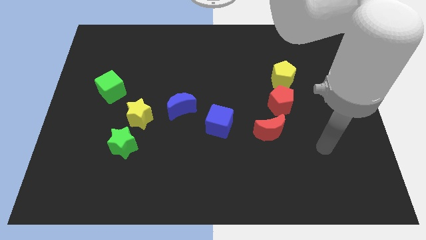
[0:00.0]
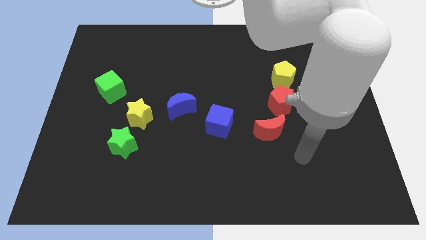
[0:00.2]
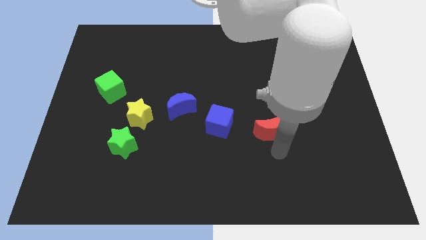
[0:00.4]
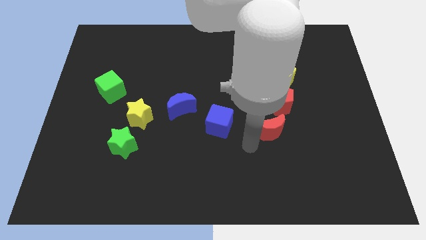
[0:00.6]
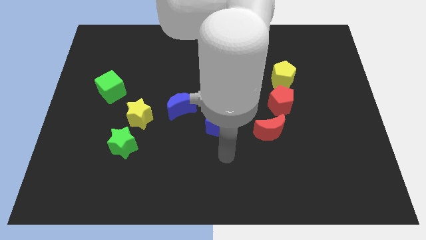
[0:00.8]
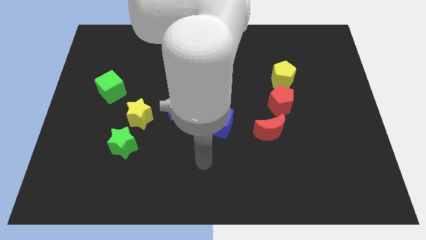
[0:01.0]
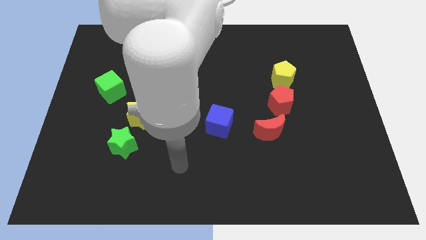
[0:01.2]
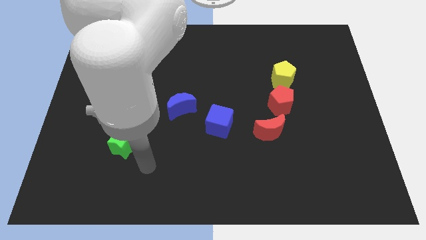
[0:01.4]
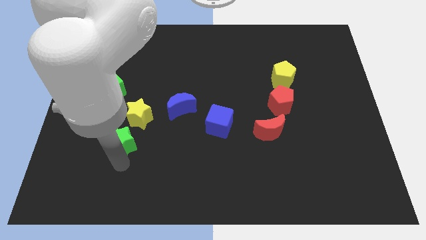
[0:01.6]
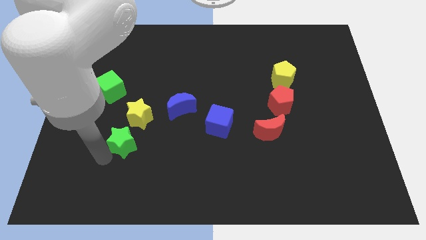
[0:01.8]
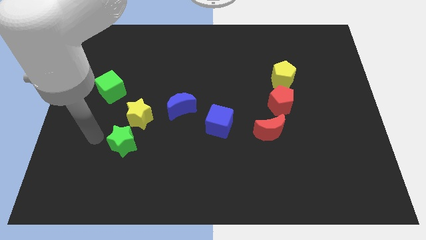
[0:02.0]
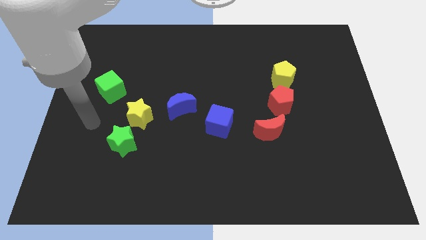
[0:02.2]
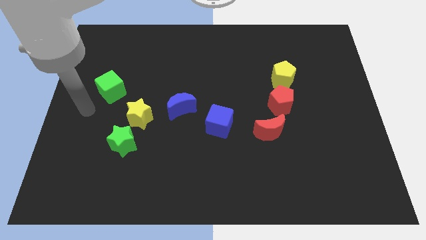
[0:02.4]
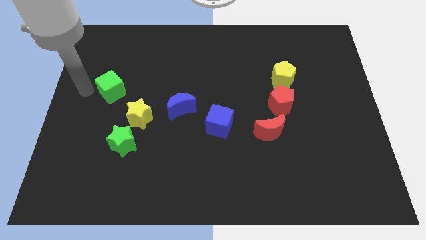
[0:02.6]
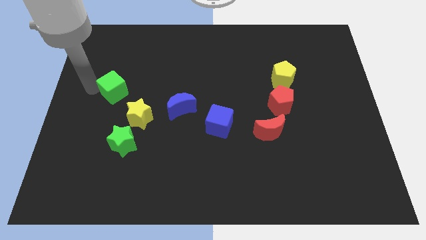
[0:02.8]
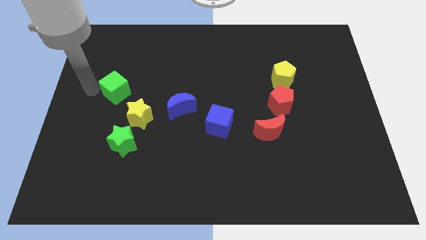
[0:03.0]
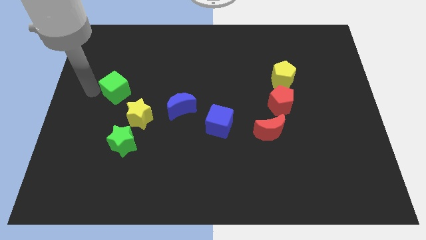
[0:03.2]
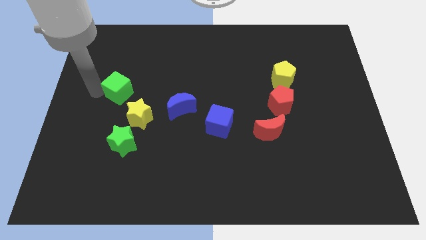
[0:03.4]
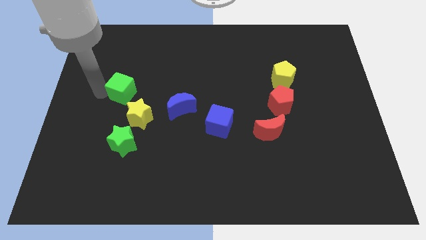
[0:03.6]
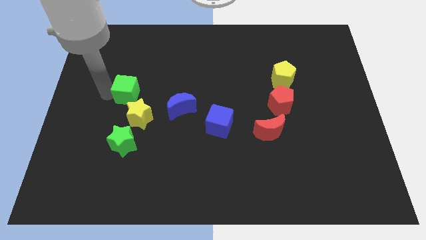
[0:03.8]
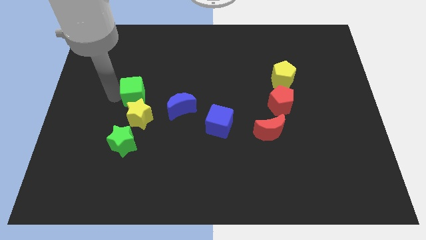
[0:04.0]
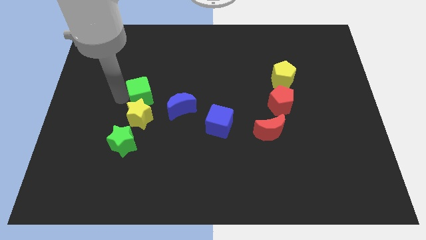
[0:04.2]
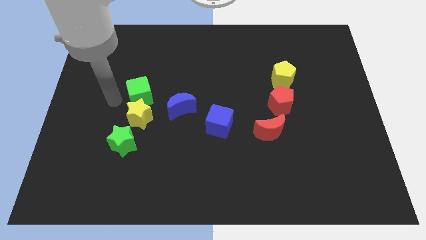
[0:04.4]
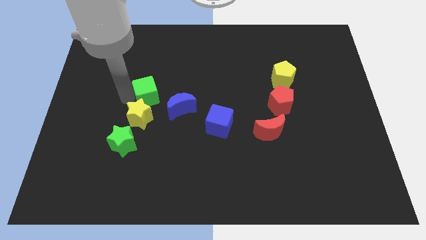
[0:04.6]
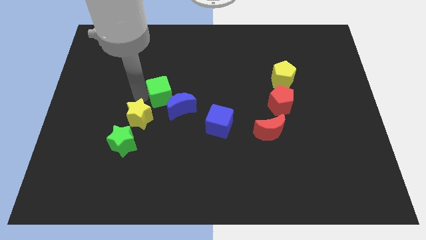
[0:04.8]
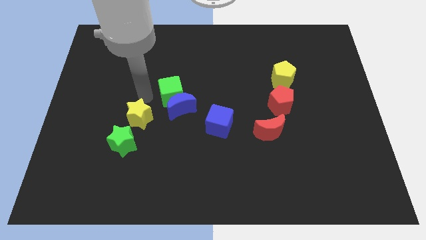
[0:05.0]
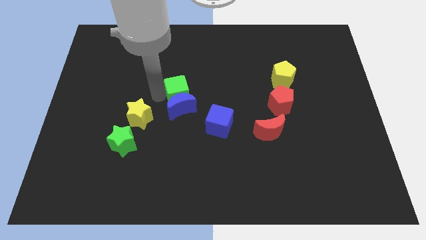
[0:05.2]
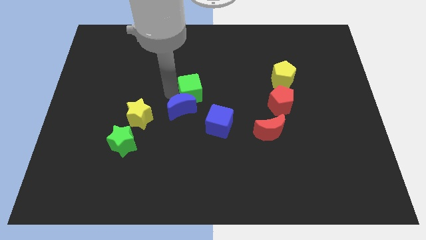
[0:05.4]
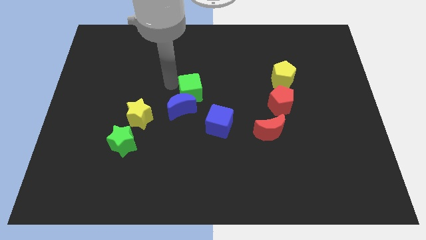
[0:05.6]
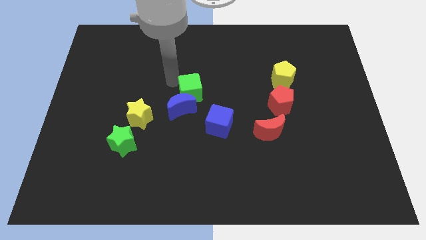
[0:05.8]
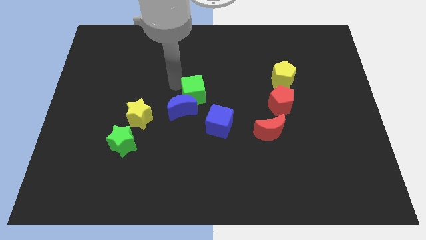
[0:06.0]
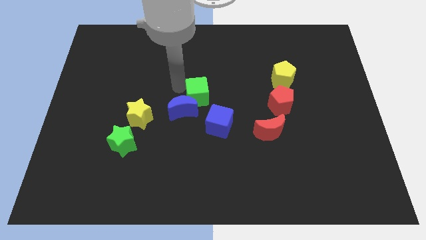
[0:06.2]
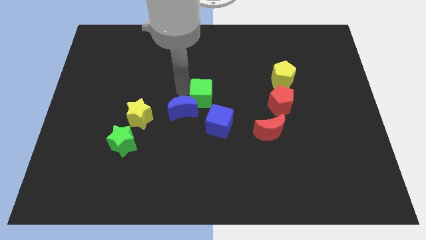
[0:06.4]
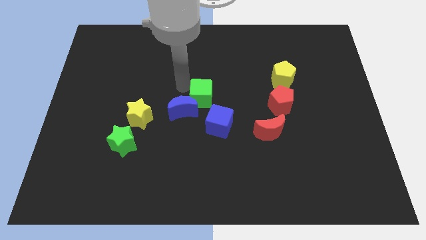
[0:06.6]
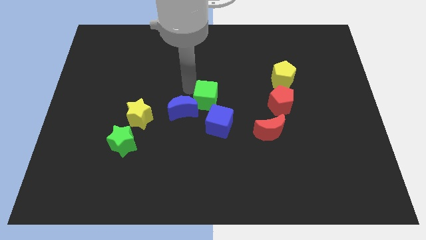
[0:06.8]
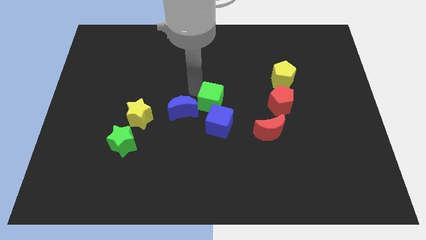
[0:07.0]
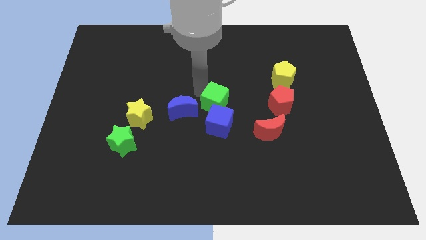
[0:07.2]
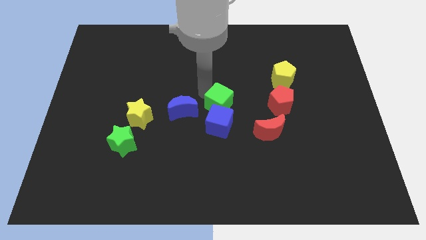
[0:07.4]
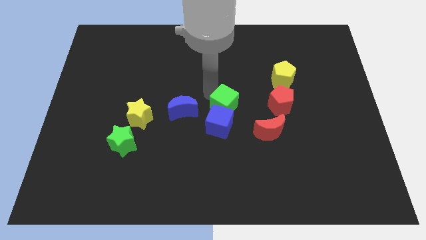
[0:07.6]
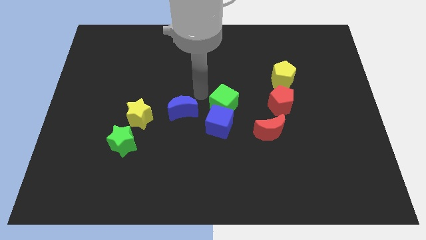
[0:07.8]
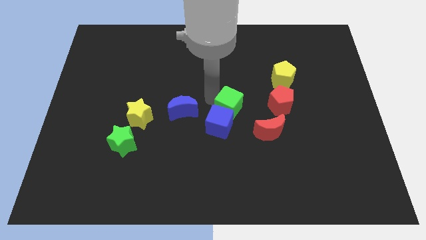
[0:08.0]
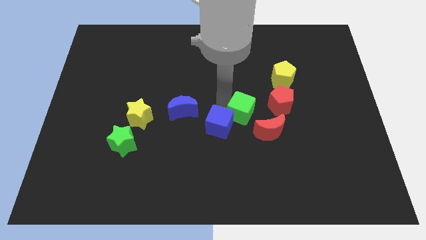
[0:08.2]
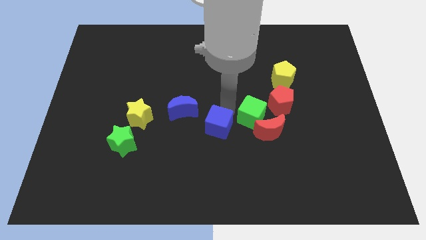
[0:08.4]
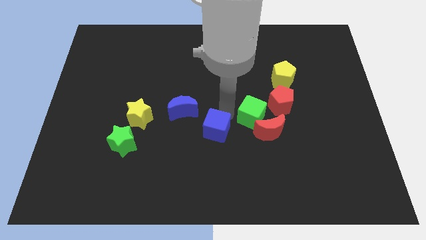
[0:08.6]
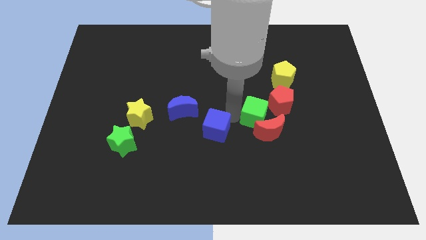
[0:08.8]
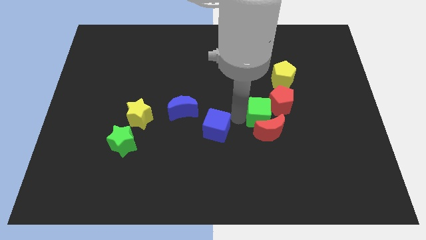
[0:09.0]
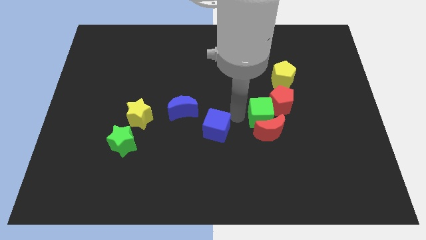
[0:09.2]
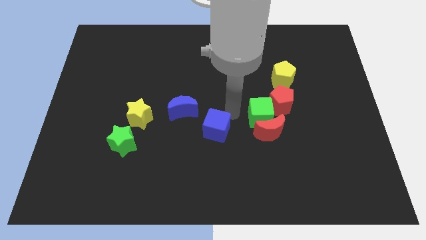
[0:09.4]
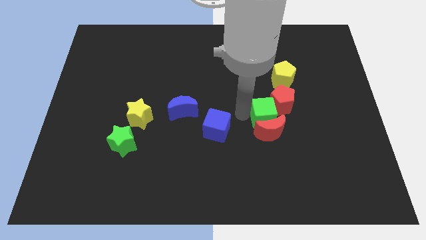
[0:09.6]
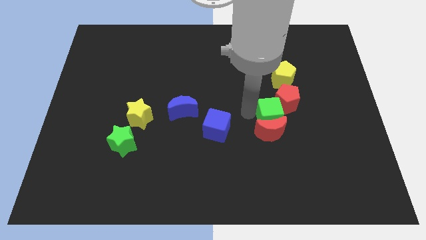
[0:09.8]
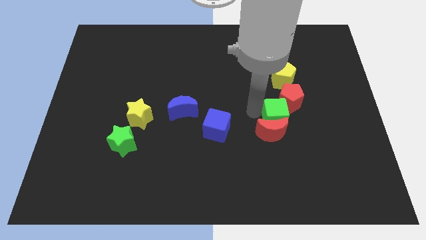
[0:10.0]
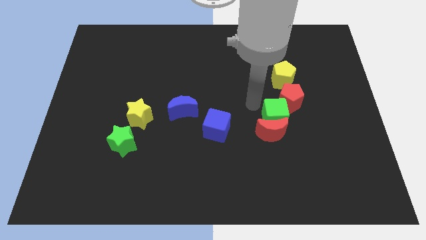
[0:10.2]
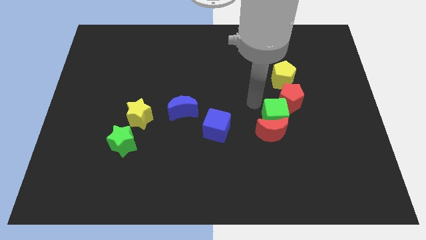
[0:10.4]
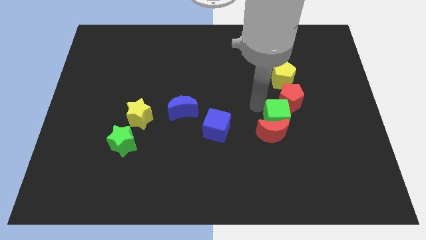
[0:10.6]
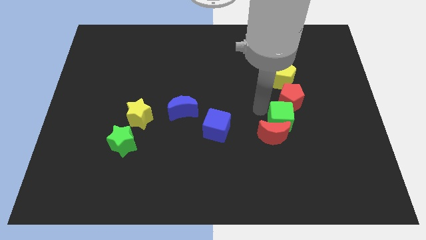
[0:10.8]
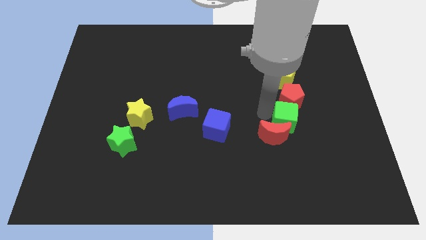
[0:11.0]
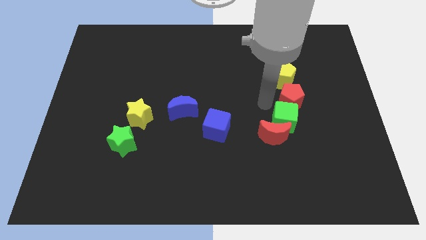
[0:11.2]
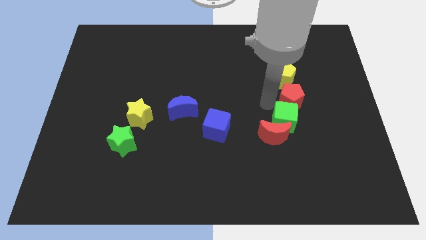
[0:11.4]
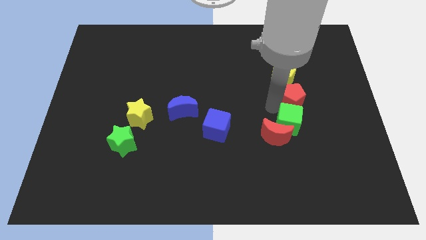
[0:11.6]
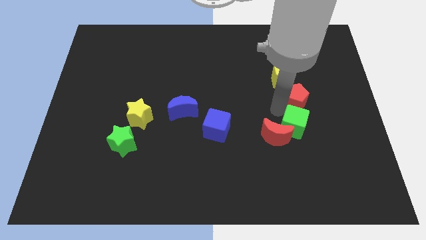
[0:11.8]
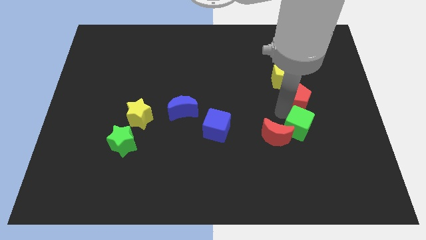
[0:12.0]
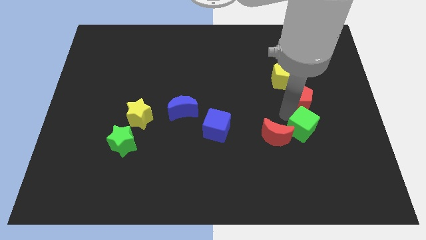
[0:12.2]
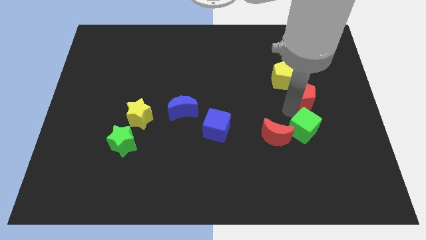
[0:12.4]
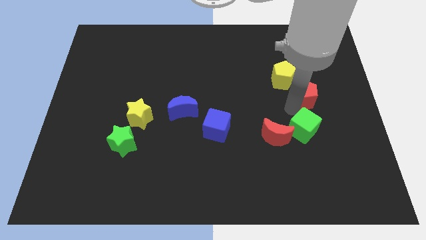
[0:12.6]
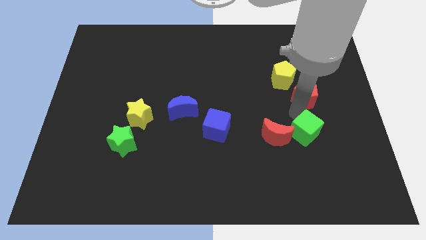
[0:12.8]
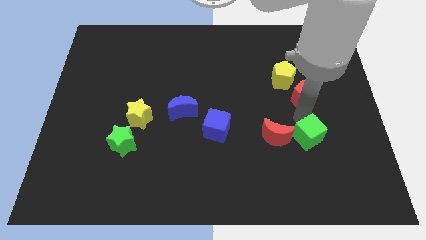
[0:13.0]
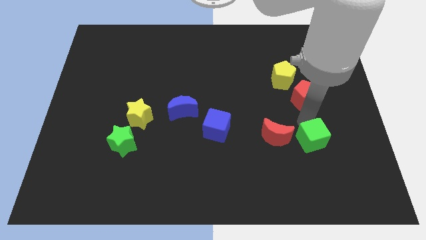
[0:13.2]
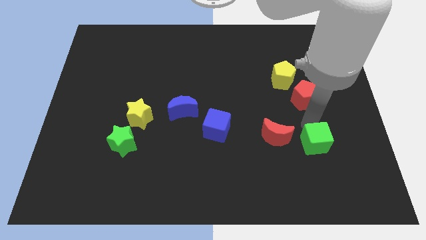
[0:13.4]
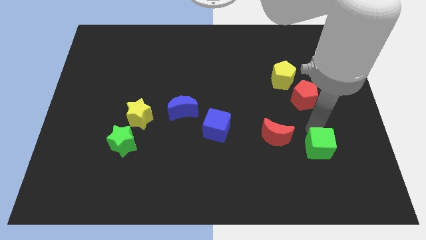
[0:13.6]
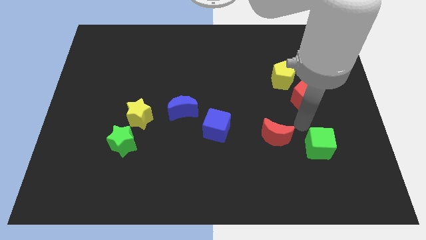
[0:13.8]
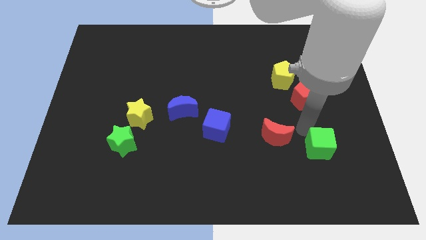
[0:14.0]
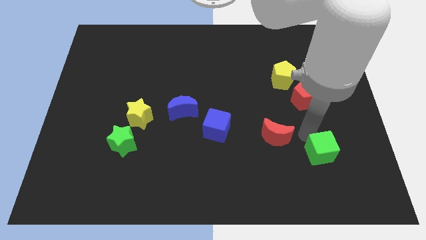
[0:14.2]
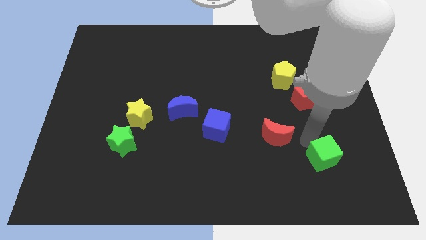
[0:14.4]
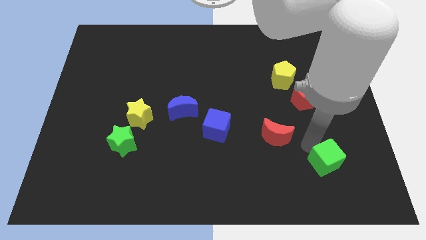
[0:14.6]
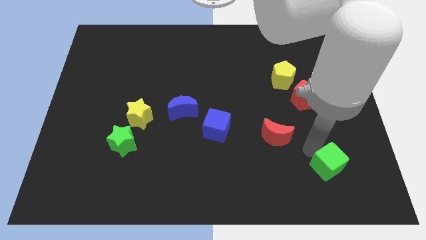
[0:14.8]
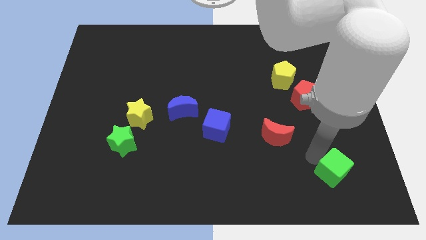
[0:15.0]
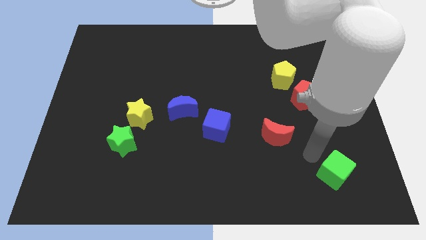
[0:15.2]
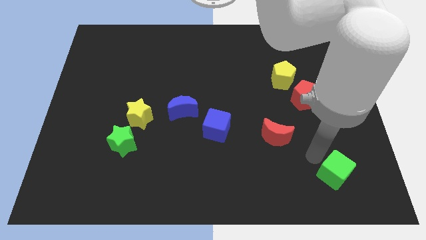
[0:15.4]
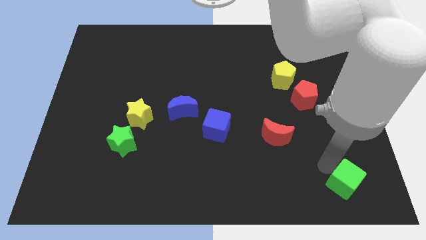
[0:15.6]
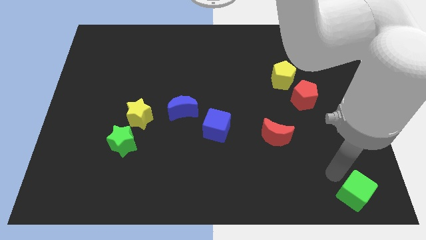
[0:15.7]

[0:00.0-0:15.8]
push the green cube to the lower right corner
